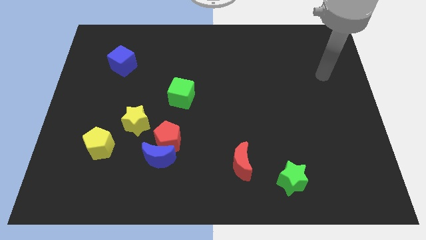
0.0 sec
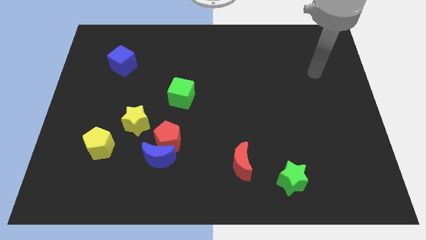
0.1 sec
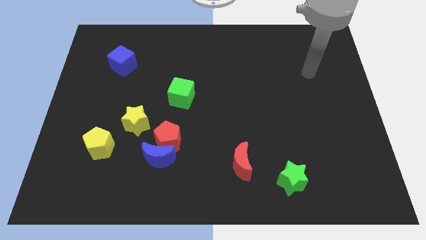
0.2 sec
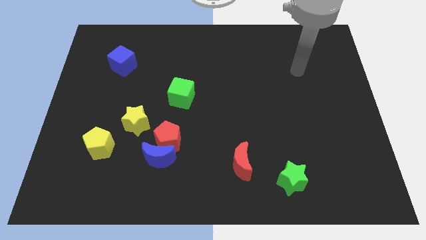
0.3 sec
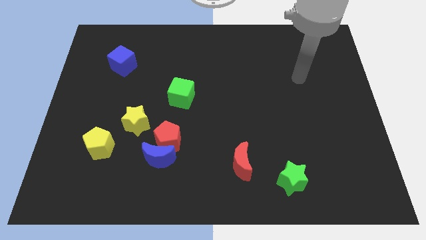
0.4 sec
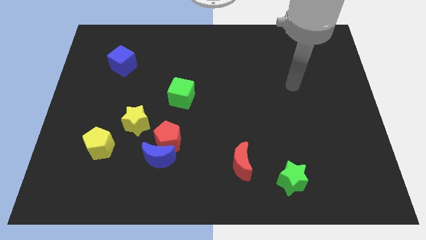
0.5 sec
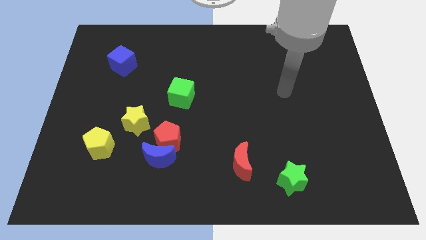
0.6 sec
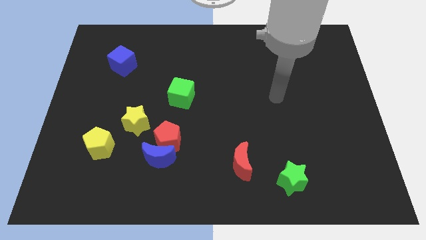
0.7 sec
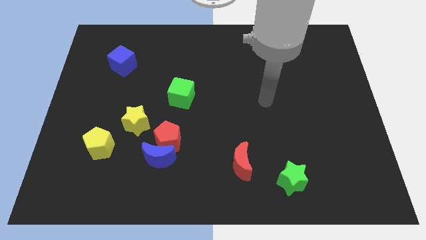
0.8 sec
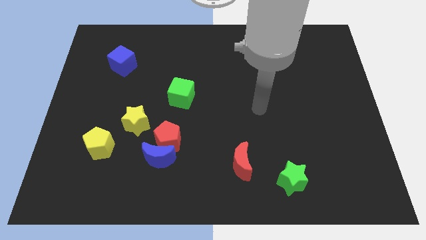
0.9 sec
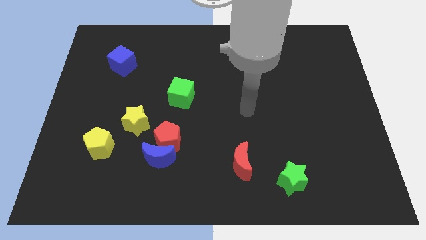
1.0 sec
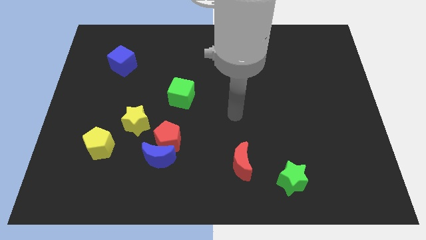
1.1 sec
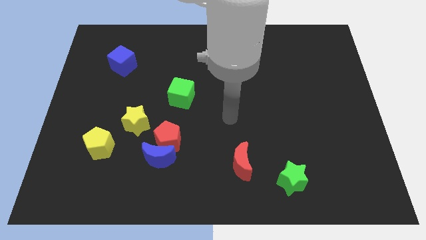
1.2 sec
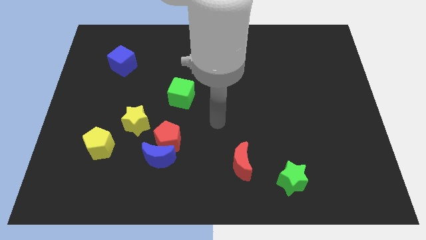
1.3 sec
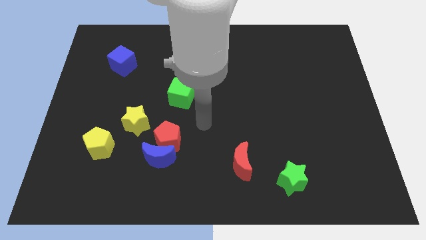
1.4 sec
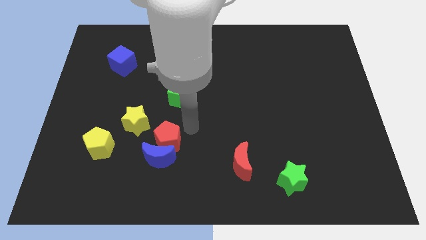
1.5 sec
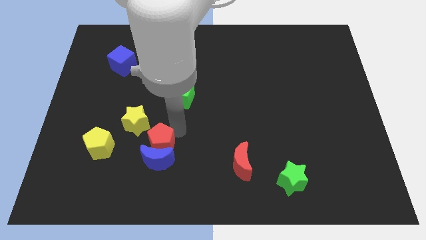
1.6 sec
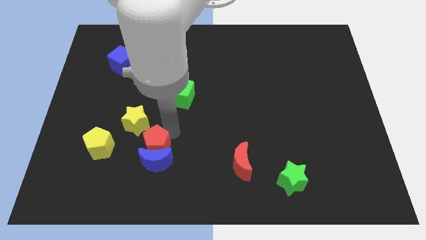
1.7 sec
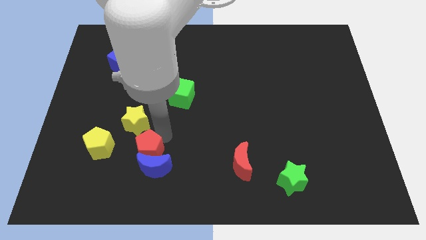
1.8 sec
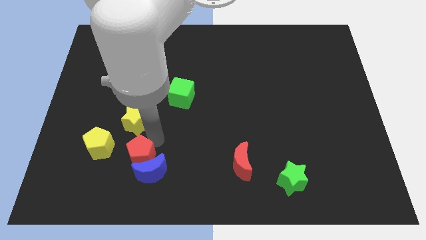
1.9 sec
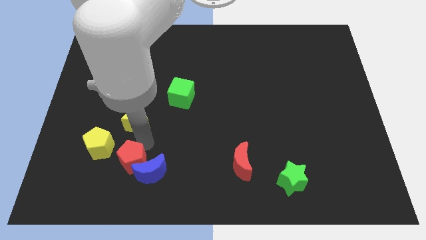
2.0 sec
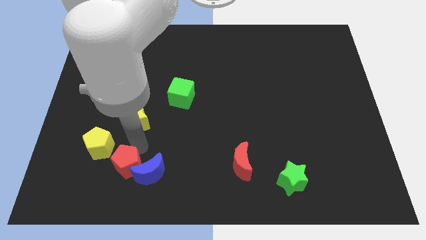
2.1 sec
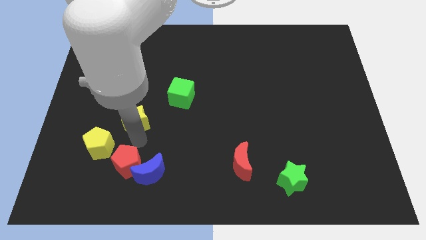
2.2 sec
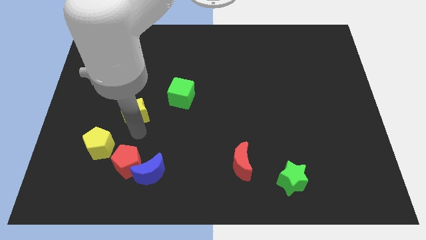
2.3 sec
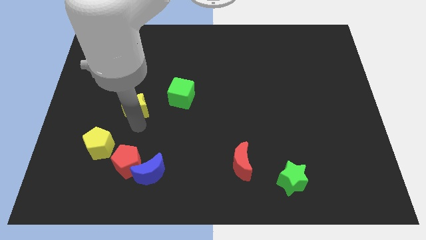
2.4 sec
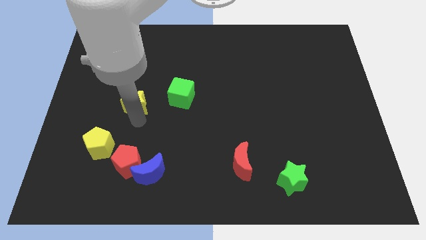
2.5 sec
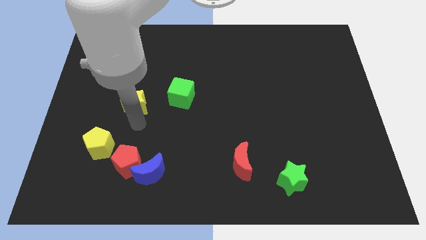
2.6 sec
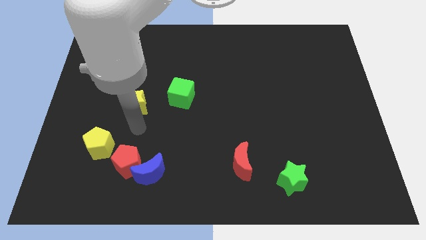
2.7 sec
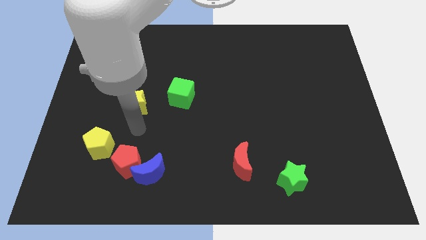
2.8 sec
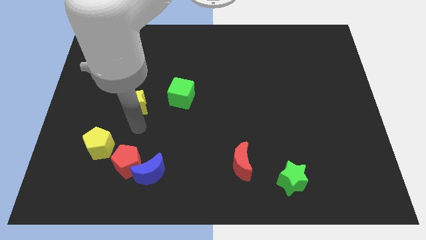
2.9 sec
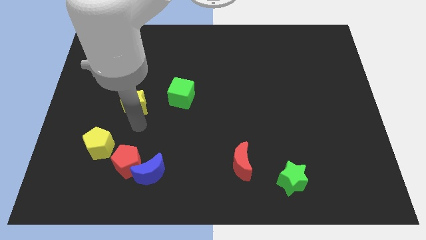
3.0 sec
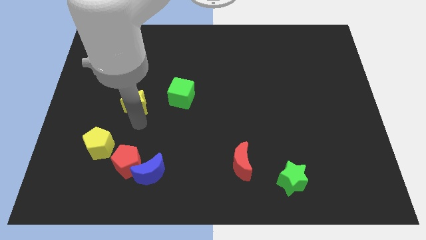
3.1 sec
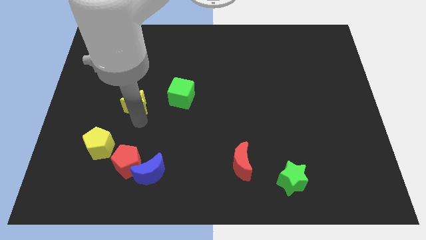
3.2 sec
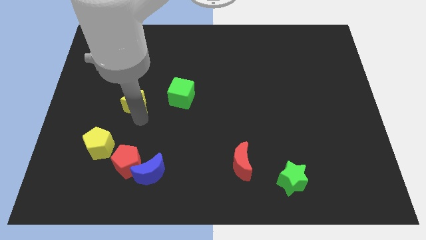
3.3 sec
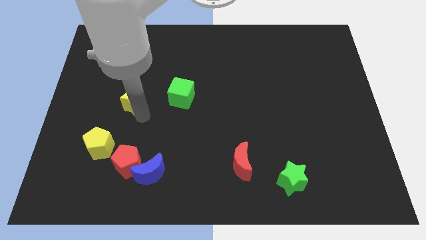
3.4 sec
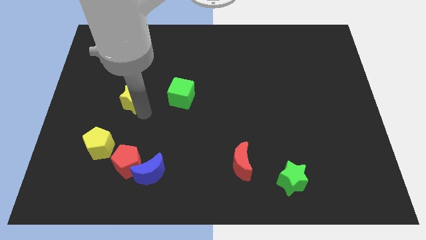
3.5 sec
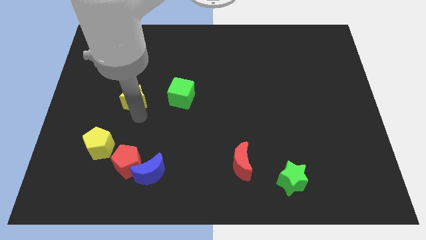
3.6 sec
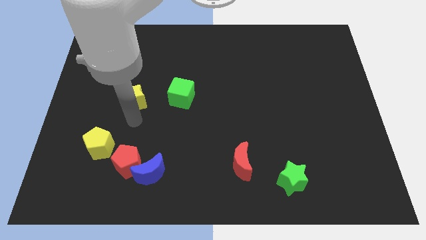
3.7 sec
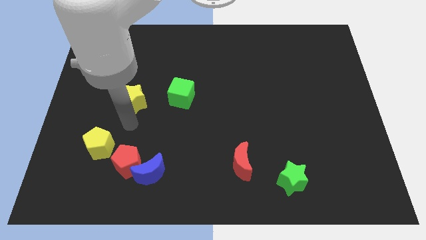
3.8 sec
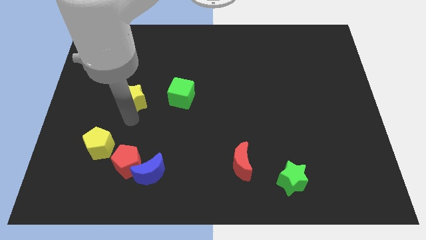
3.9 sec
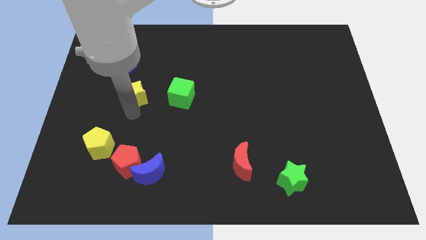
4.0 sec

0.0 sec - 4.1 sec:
slightly move the yellow star upwards

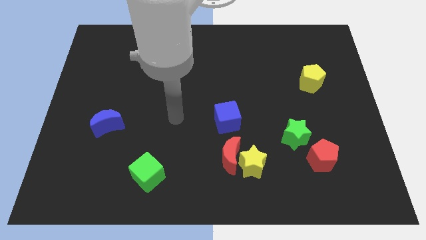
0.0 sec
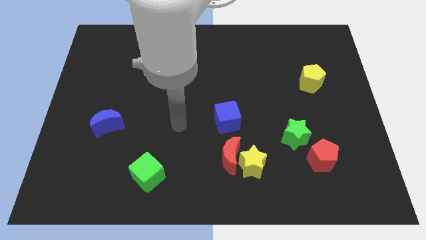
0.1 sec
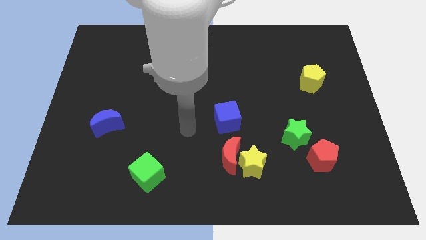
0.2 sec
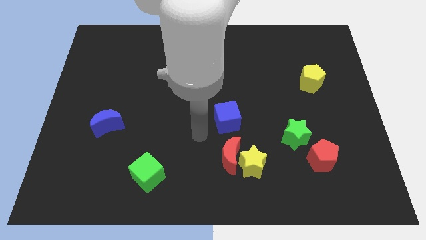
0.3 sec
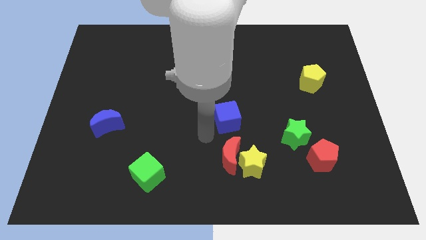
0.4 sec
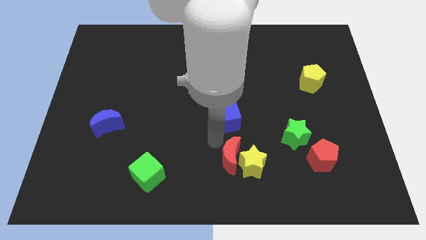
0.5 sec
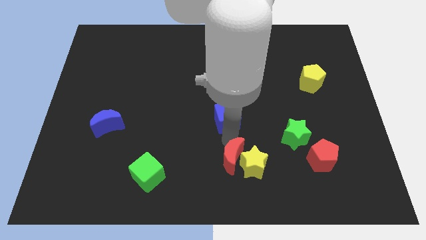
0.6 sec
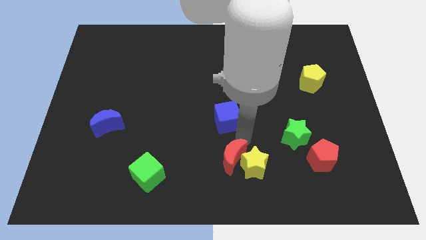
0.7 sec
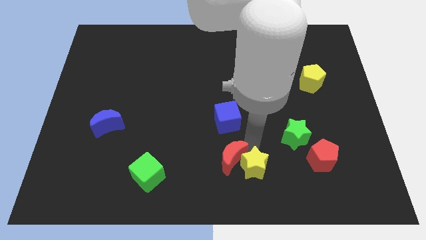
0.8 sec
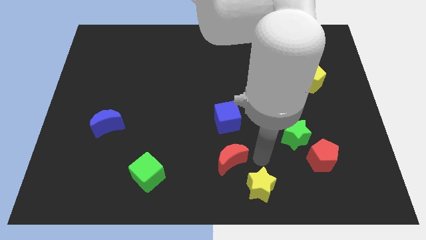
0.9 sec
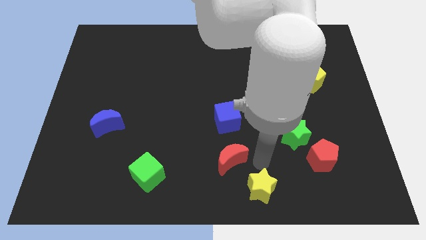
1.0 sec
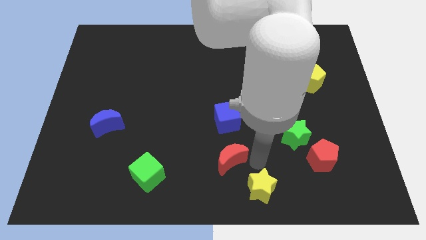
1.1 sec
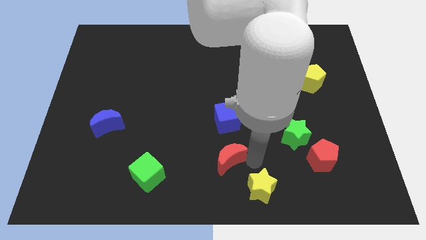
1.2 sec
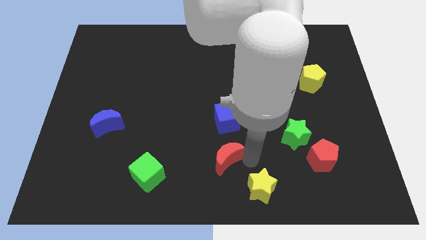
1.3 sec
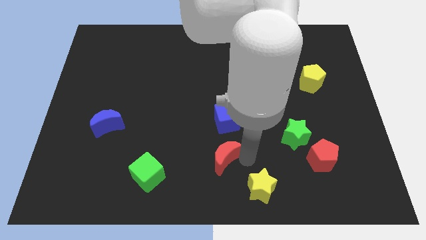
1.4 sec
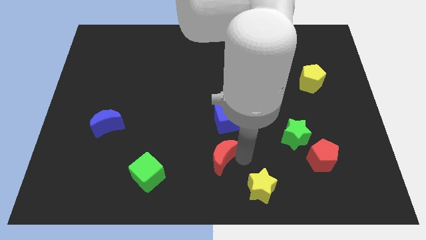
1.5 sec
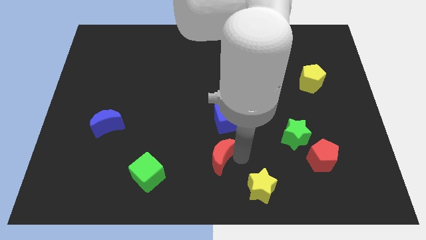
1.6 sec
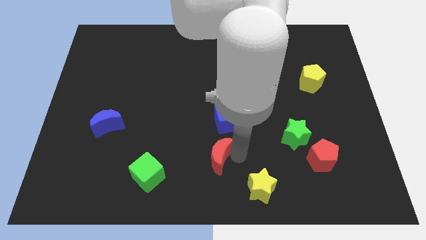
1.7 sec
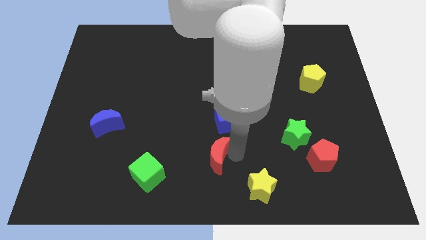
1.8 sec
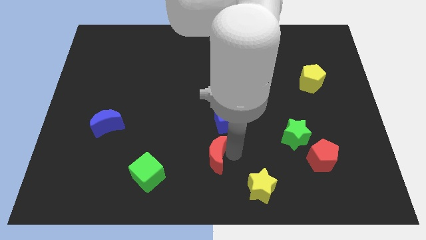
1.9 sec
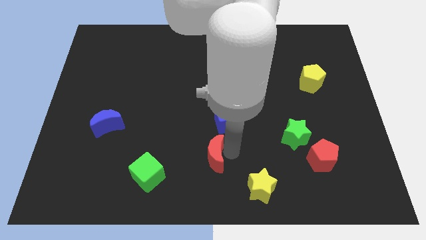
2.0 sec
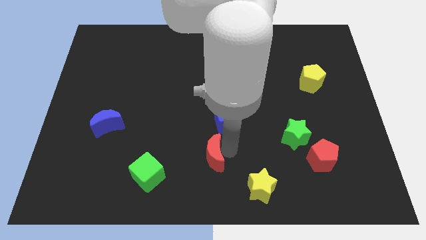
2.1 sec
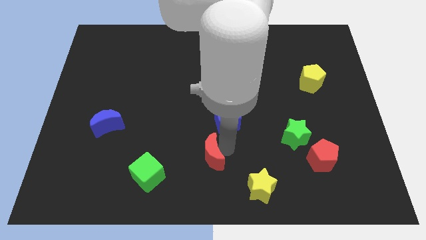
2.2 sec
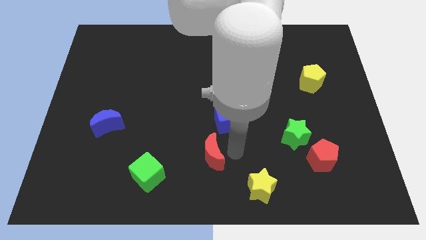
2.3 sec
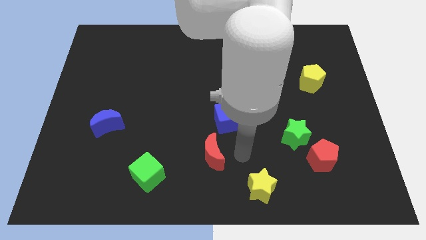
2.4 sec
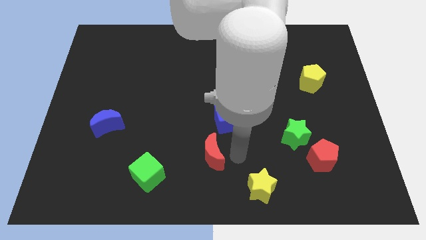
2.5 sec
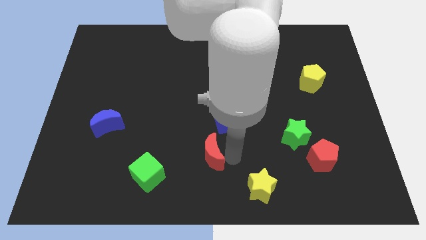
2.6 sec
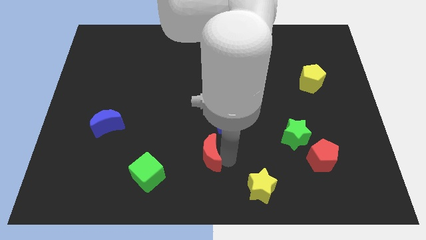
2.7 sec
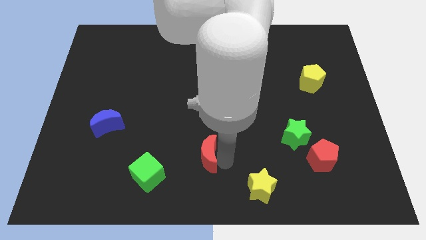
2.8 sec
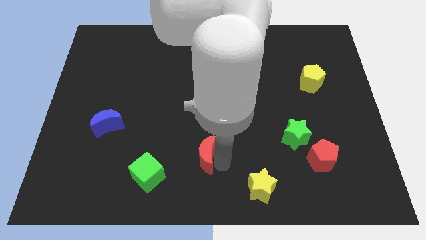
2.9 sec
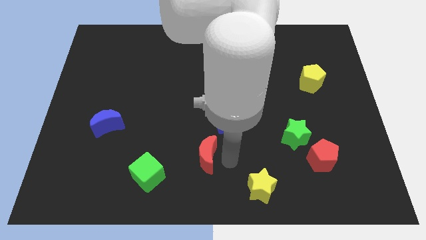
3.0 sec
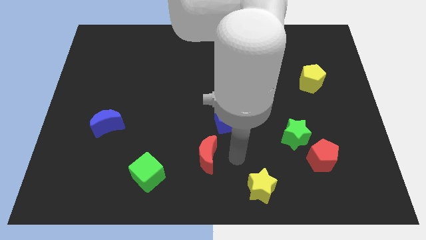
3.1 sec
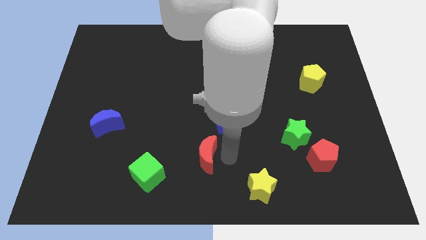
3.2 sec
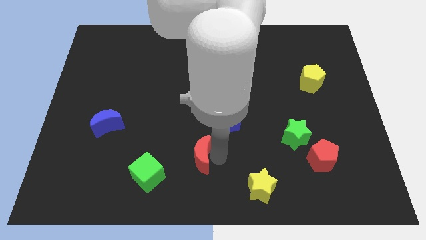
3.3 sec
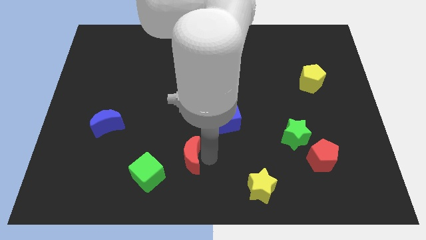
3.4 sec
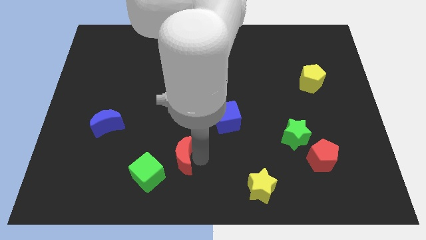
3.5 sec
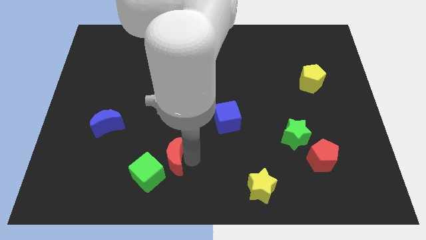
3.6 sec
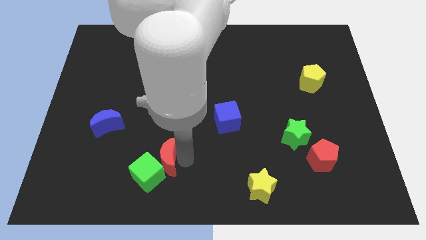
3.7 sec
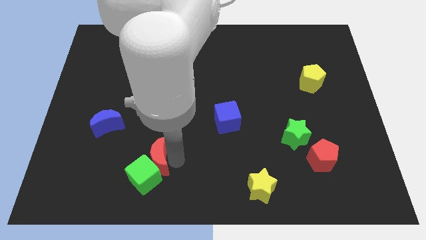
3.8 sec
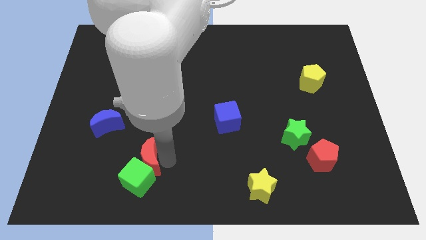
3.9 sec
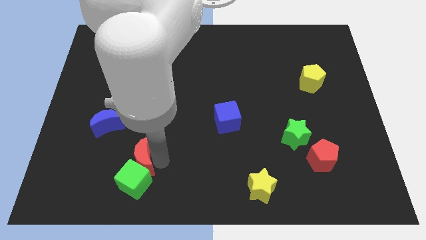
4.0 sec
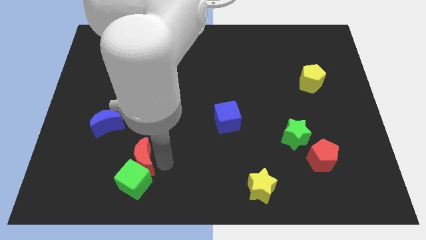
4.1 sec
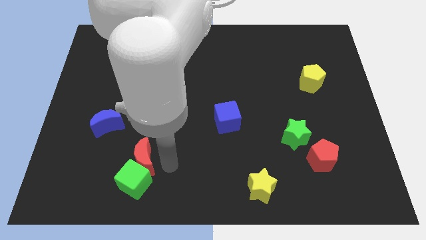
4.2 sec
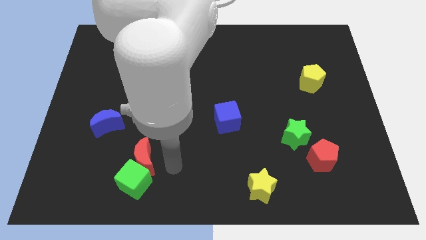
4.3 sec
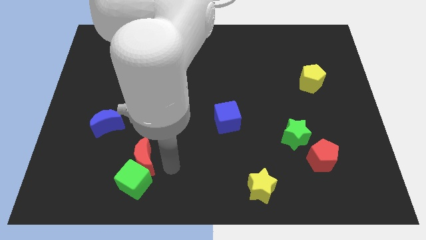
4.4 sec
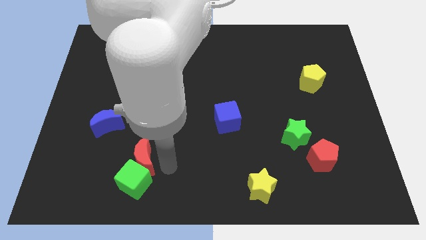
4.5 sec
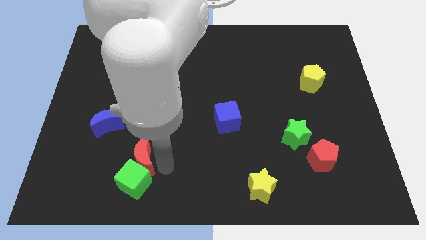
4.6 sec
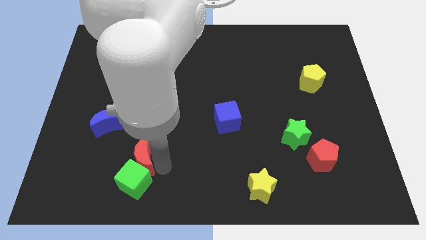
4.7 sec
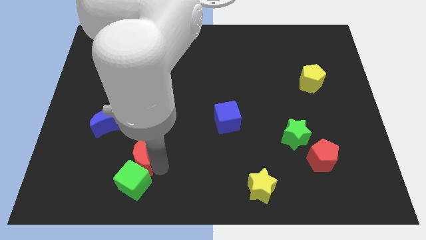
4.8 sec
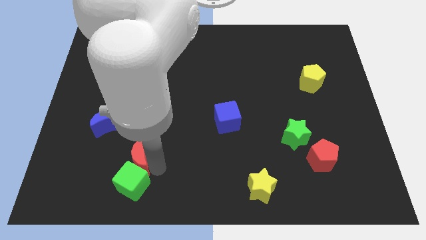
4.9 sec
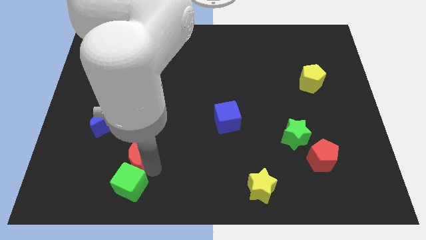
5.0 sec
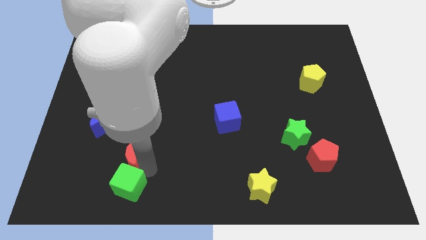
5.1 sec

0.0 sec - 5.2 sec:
push the red moon left
